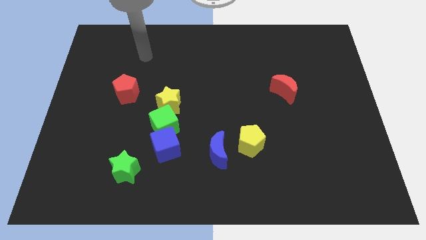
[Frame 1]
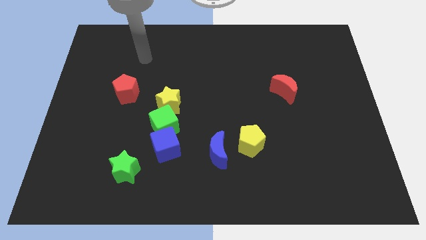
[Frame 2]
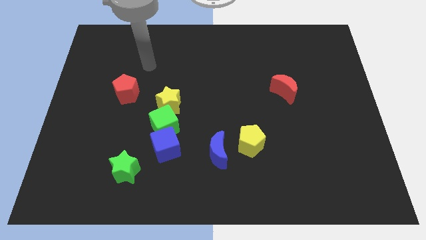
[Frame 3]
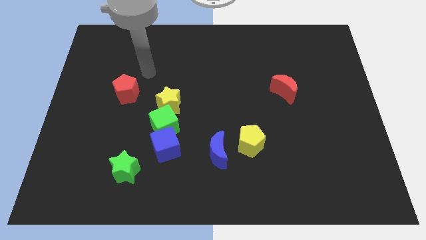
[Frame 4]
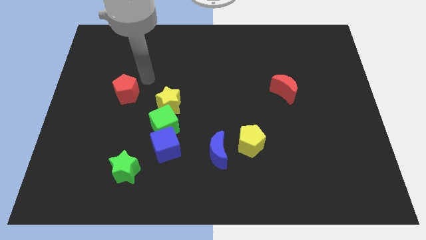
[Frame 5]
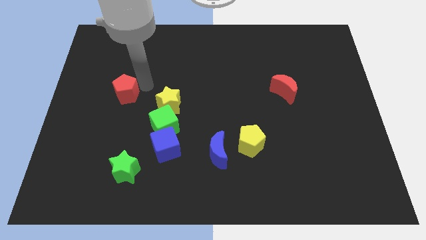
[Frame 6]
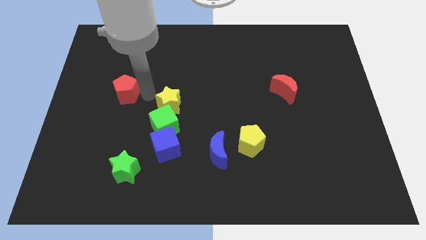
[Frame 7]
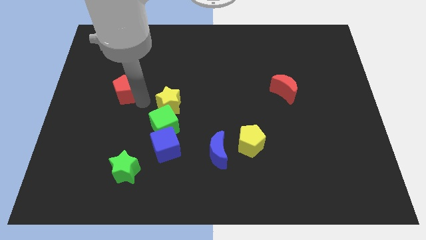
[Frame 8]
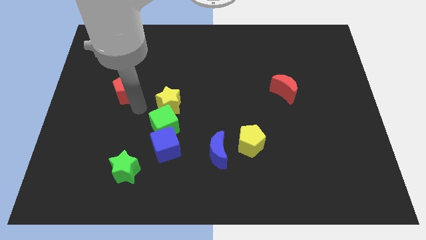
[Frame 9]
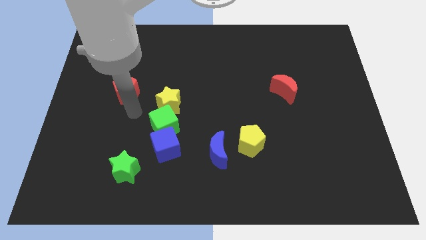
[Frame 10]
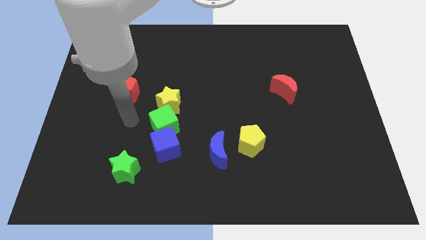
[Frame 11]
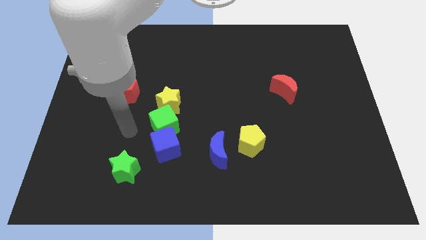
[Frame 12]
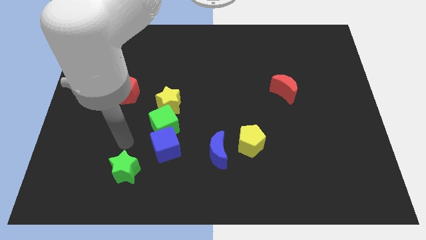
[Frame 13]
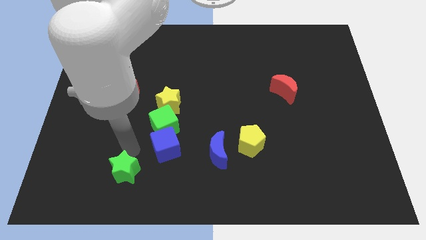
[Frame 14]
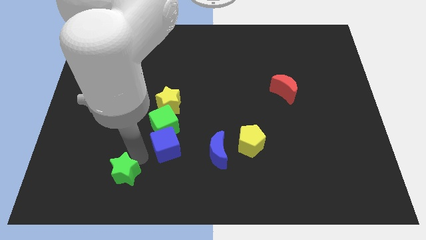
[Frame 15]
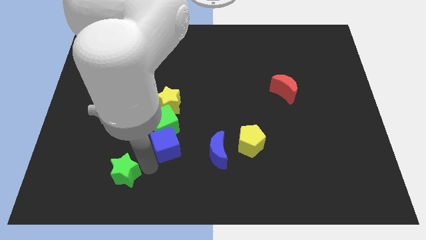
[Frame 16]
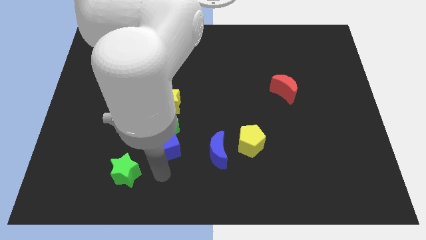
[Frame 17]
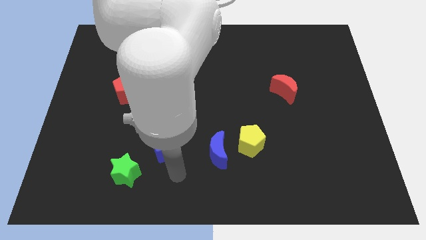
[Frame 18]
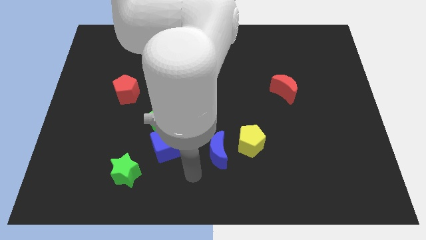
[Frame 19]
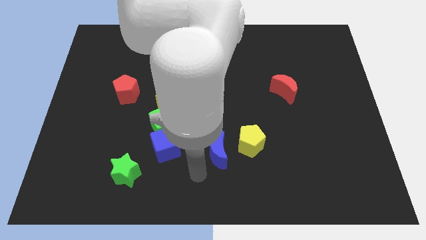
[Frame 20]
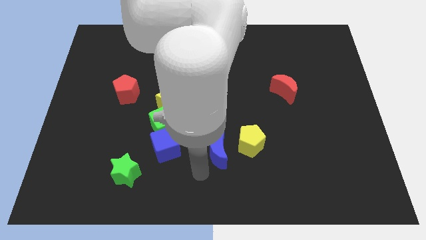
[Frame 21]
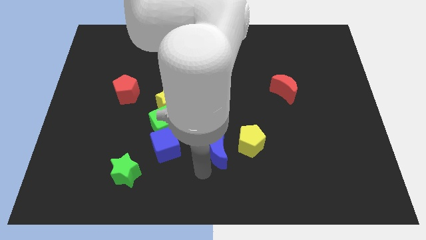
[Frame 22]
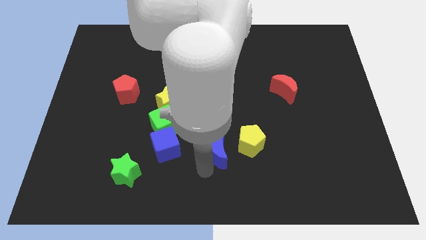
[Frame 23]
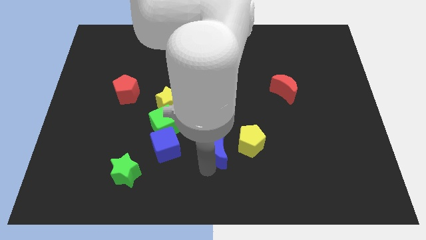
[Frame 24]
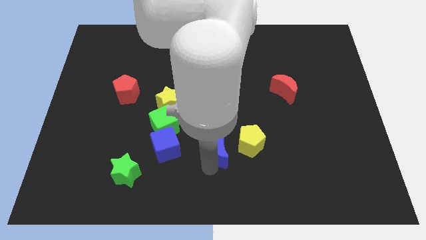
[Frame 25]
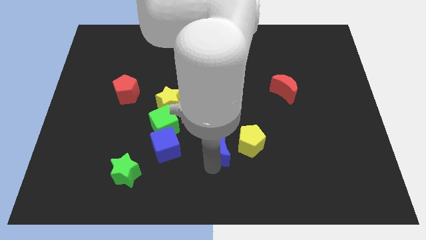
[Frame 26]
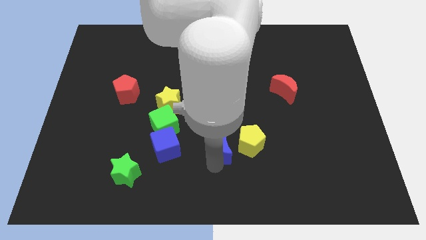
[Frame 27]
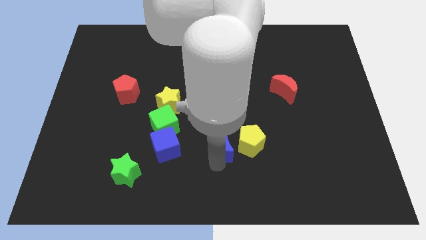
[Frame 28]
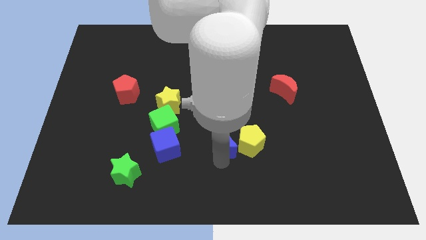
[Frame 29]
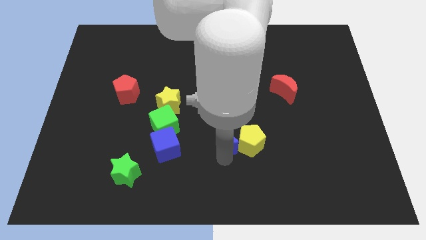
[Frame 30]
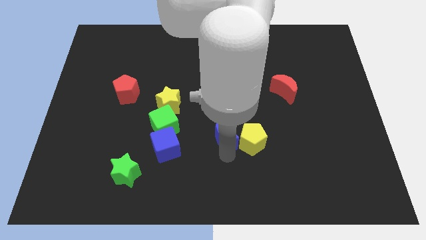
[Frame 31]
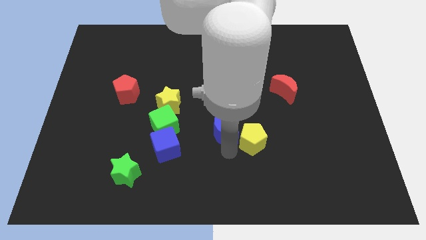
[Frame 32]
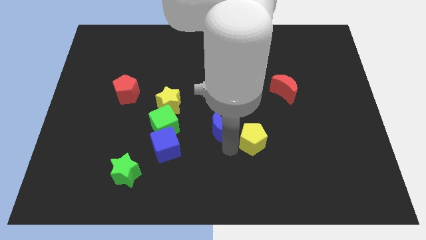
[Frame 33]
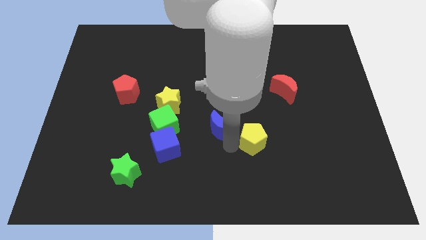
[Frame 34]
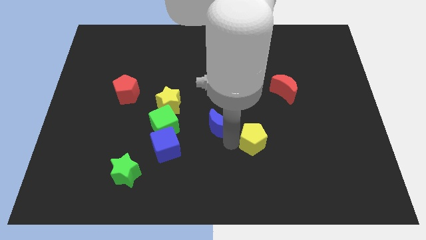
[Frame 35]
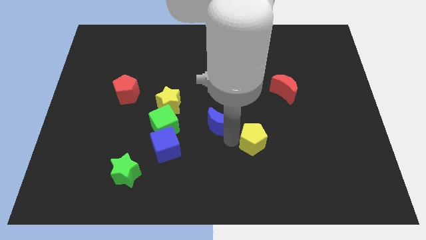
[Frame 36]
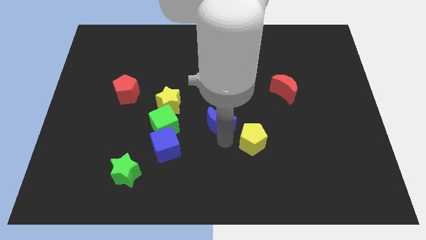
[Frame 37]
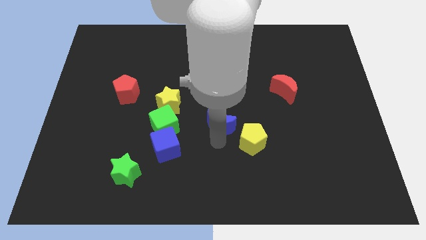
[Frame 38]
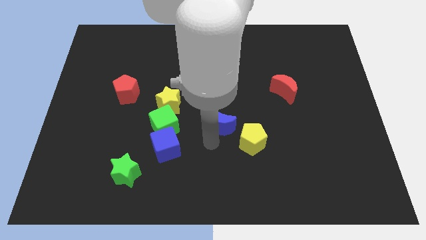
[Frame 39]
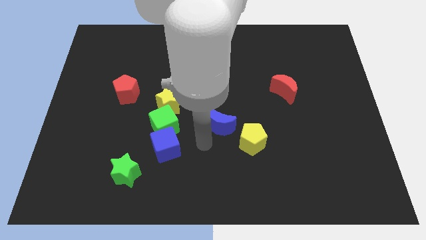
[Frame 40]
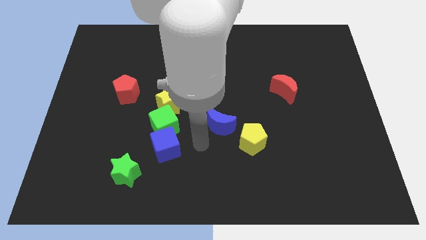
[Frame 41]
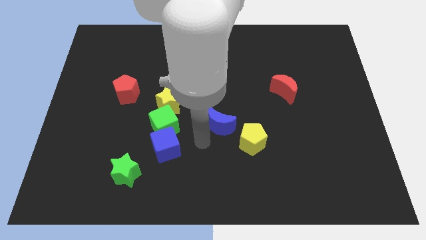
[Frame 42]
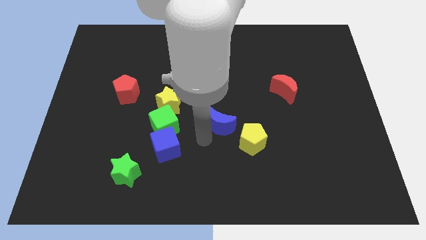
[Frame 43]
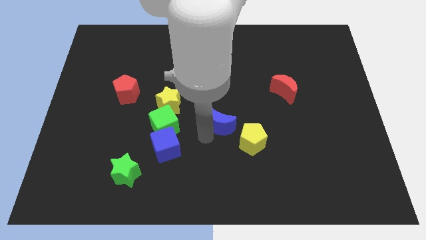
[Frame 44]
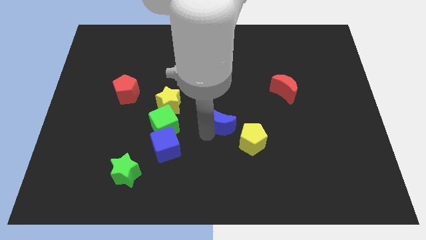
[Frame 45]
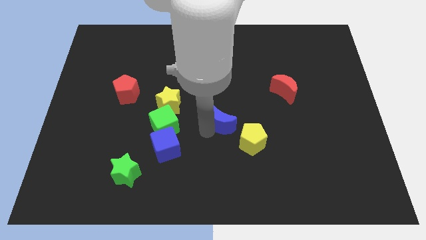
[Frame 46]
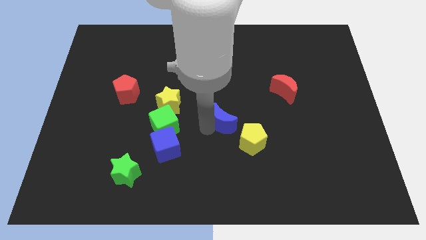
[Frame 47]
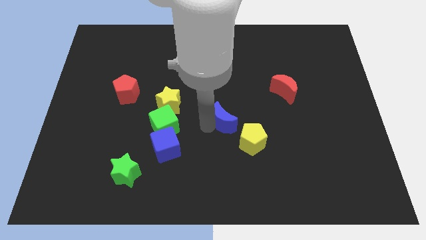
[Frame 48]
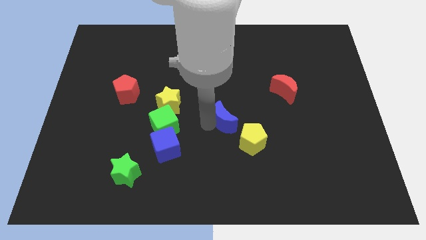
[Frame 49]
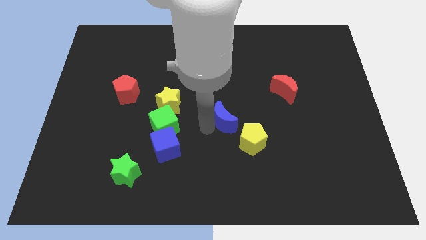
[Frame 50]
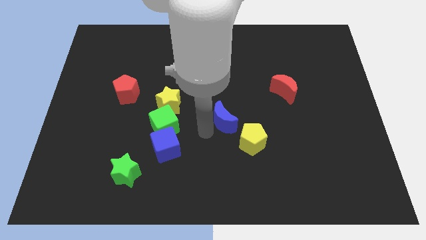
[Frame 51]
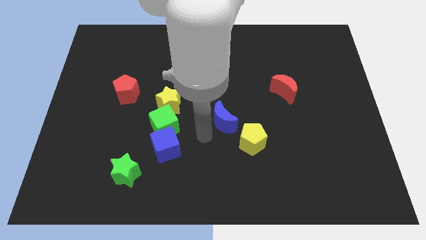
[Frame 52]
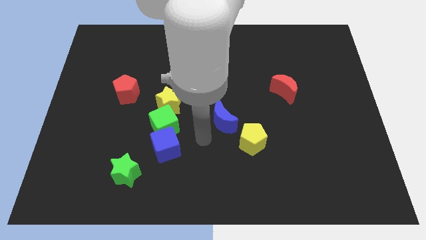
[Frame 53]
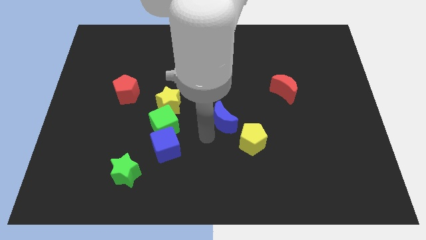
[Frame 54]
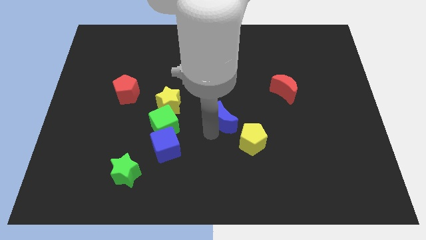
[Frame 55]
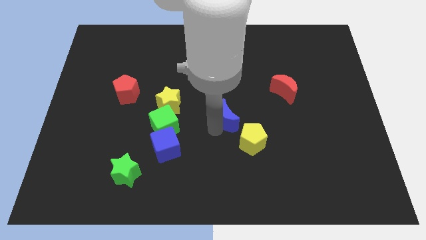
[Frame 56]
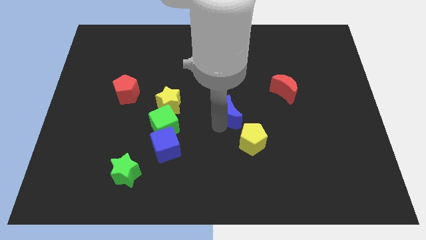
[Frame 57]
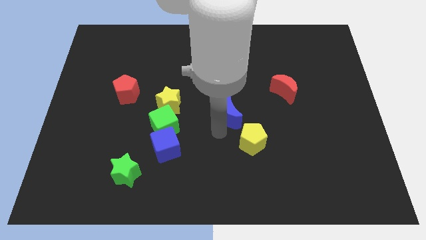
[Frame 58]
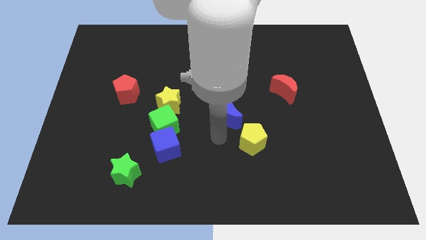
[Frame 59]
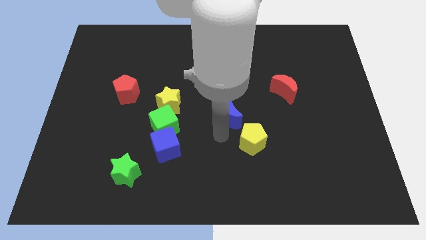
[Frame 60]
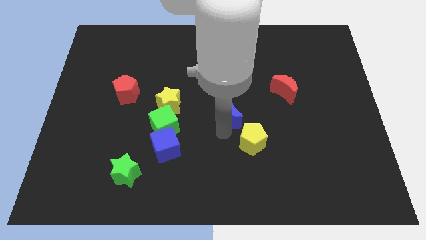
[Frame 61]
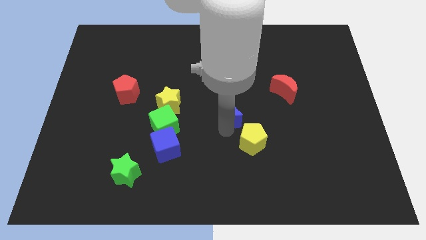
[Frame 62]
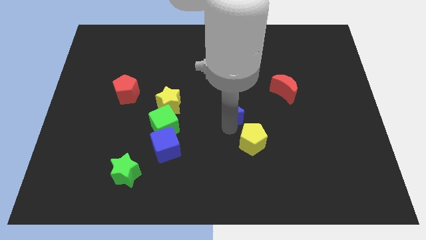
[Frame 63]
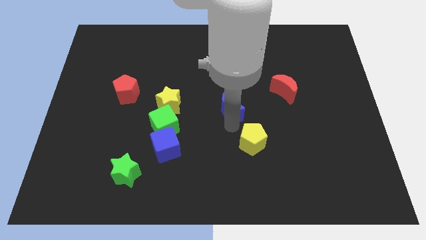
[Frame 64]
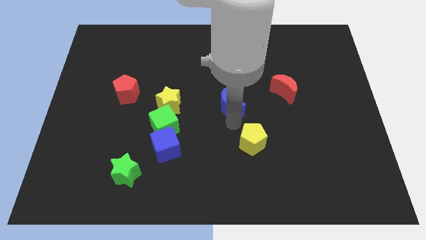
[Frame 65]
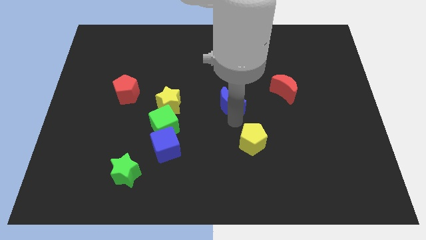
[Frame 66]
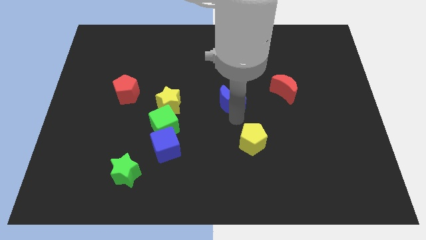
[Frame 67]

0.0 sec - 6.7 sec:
push the blue moon left of the red moon
